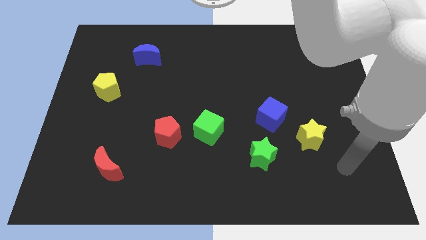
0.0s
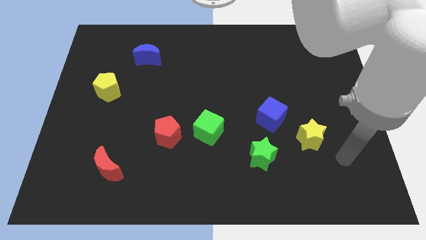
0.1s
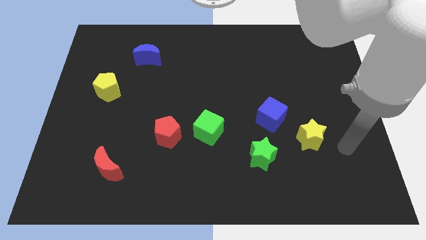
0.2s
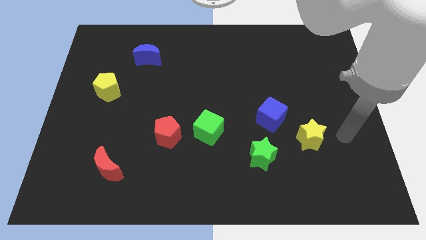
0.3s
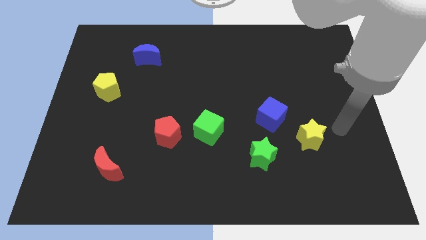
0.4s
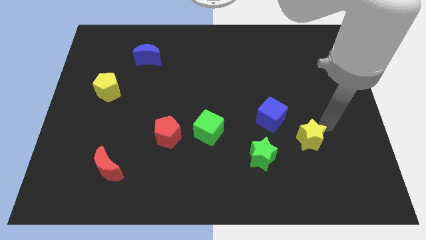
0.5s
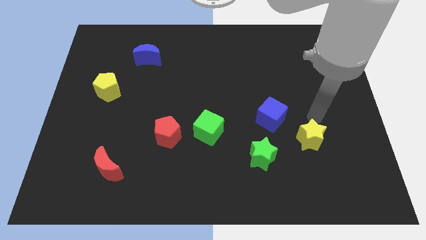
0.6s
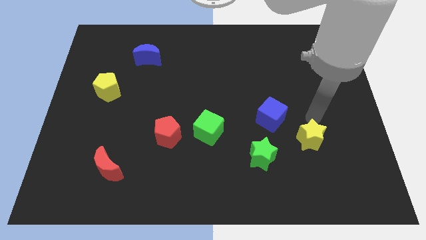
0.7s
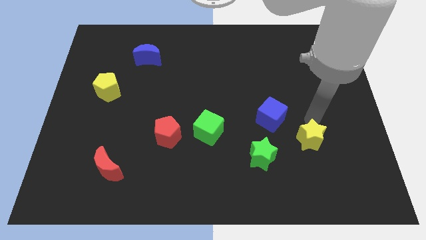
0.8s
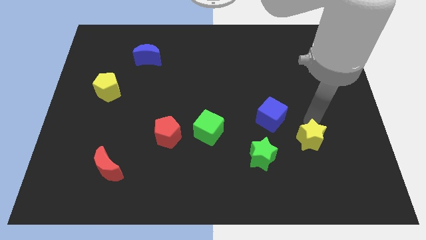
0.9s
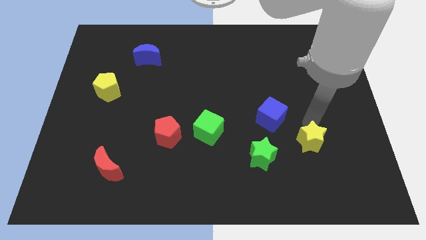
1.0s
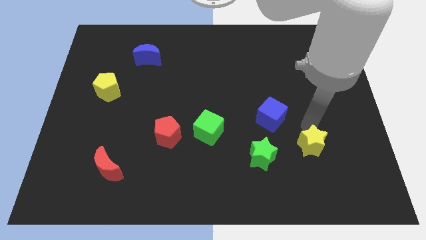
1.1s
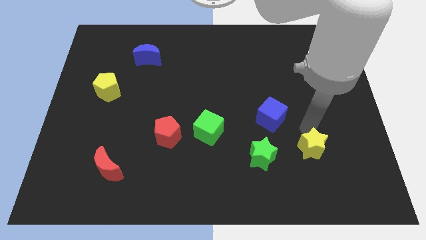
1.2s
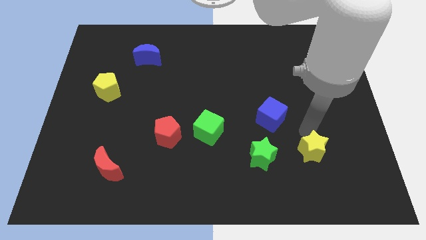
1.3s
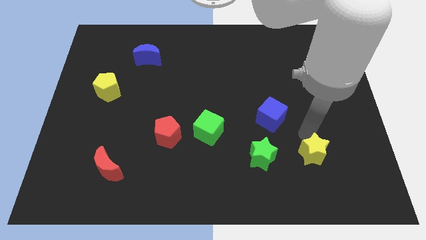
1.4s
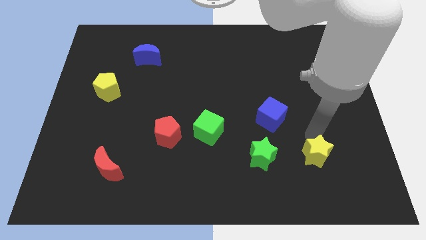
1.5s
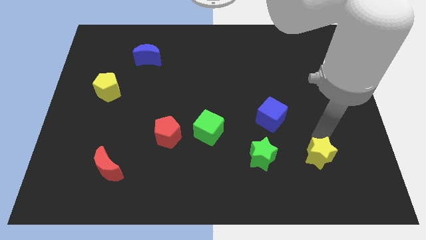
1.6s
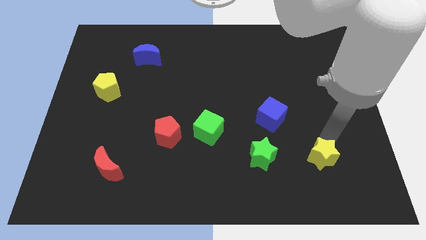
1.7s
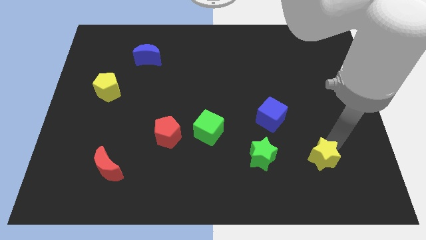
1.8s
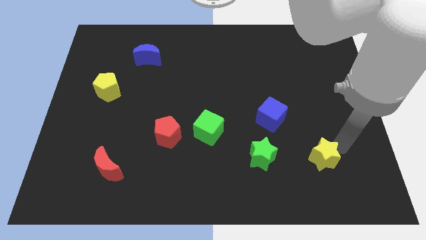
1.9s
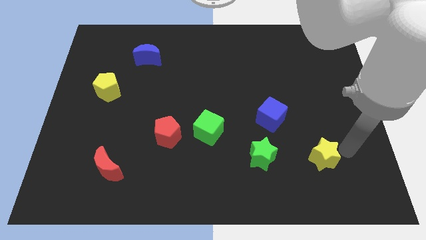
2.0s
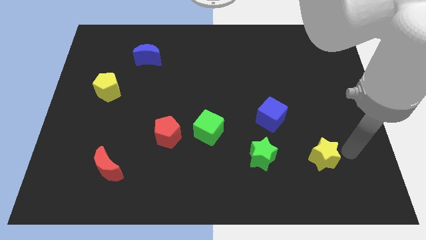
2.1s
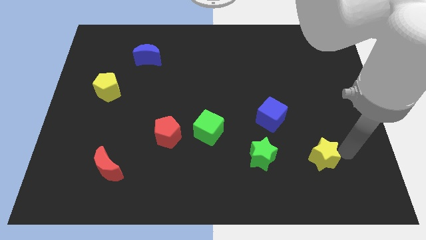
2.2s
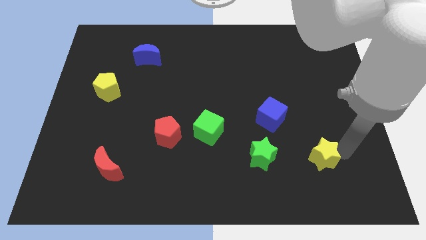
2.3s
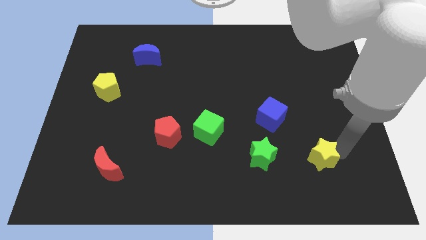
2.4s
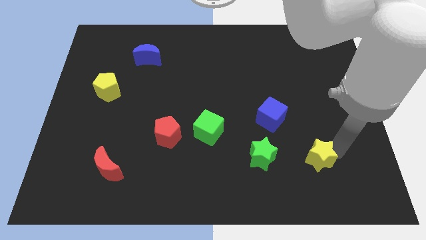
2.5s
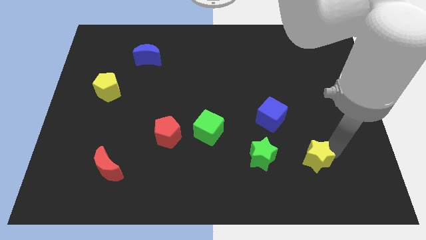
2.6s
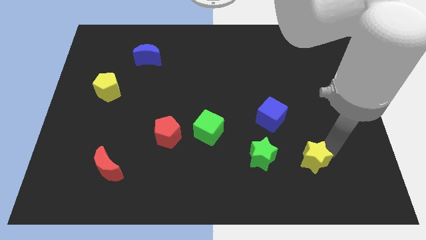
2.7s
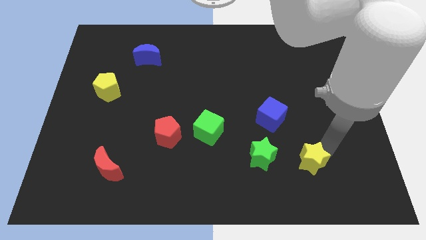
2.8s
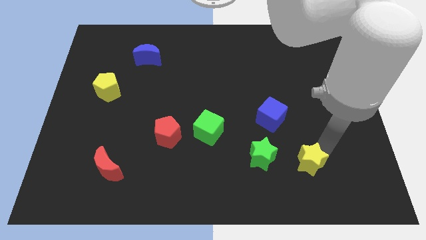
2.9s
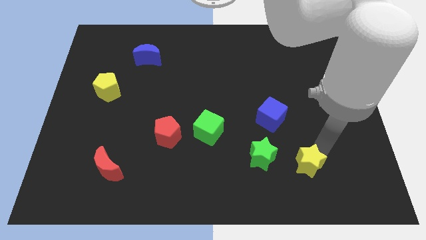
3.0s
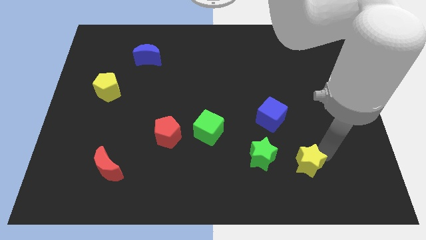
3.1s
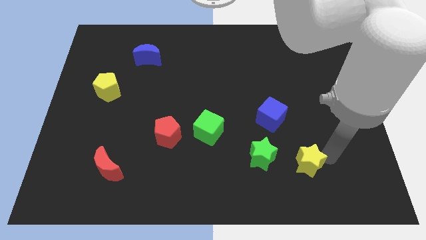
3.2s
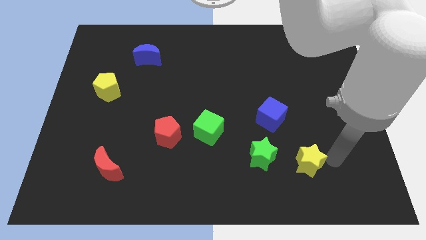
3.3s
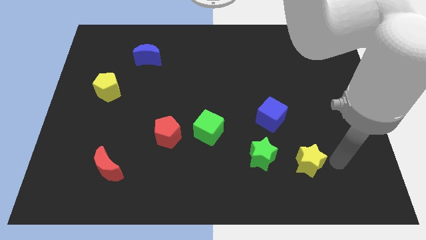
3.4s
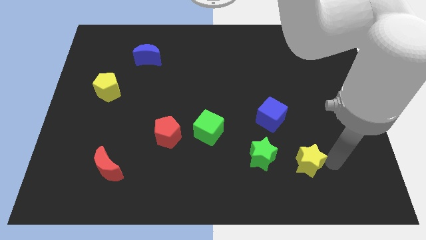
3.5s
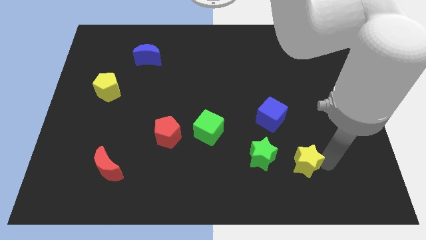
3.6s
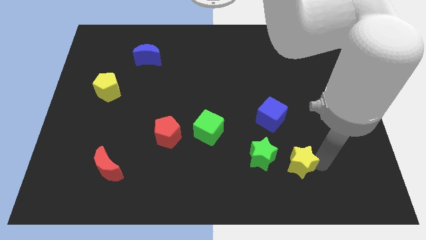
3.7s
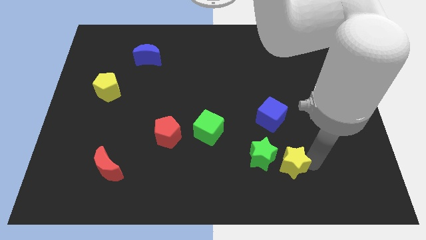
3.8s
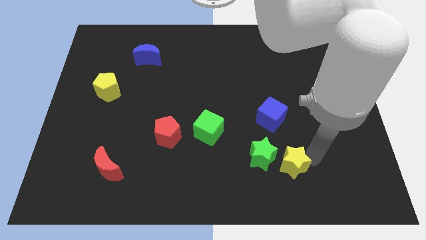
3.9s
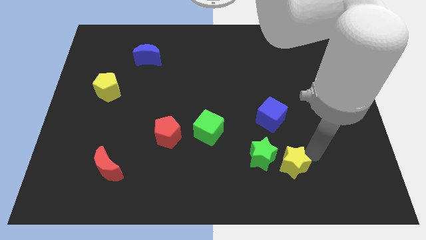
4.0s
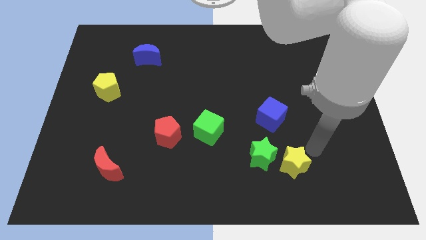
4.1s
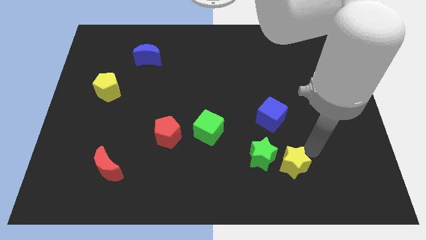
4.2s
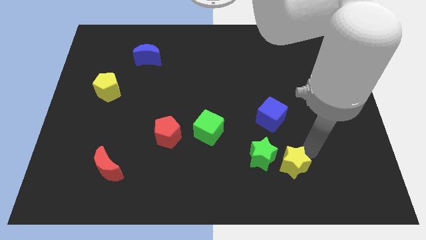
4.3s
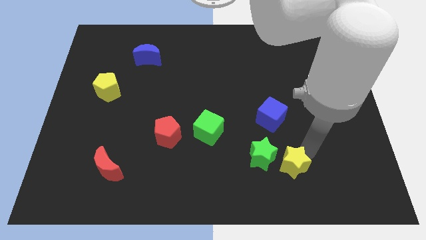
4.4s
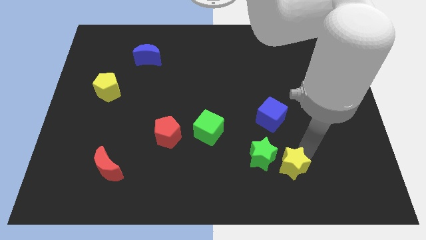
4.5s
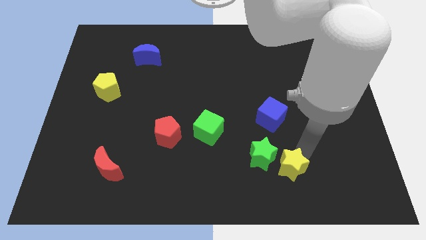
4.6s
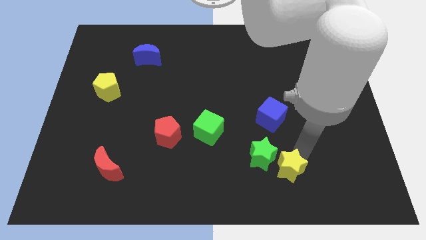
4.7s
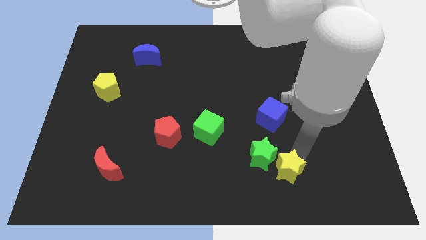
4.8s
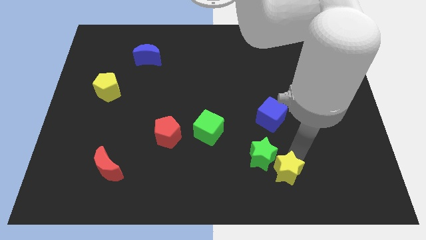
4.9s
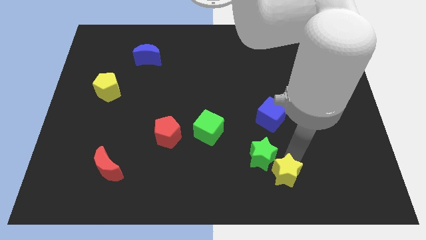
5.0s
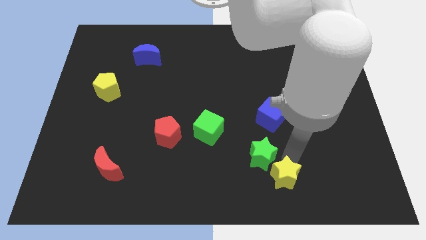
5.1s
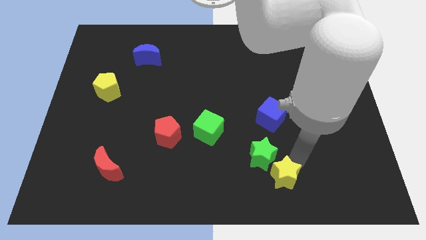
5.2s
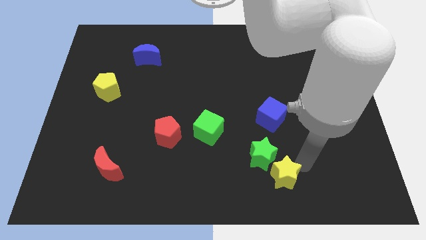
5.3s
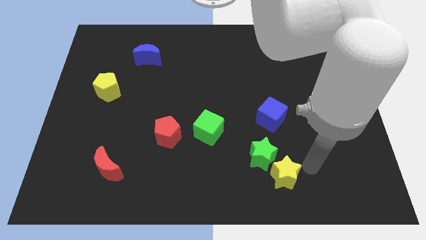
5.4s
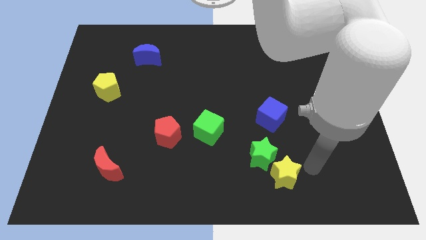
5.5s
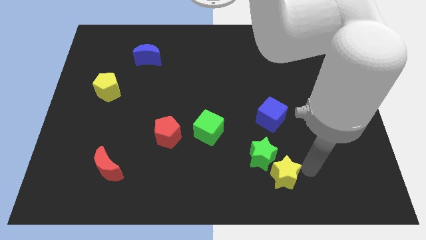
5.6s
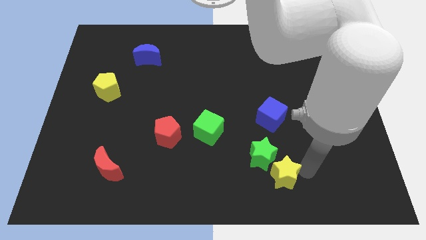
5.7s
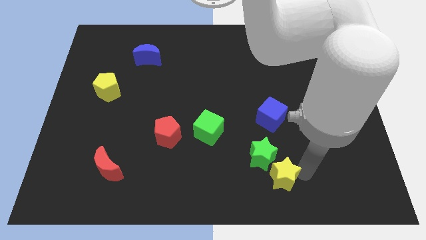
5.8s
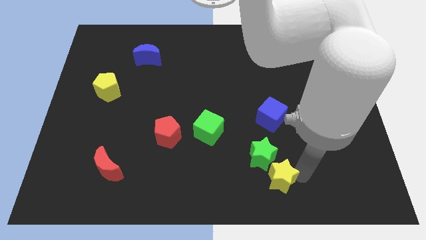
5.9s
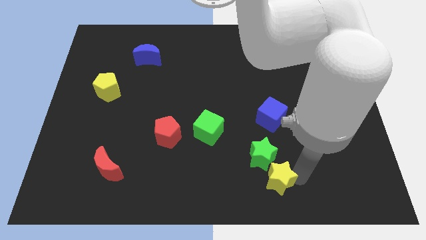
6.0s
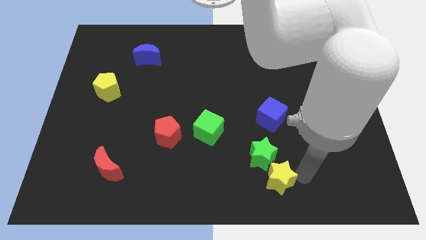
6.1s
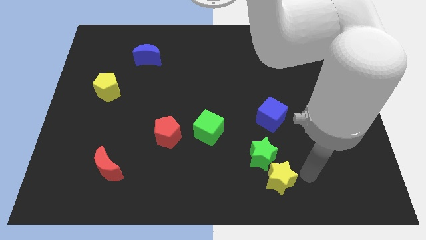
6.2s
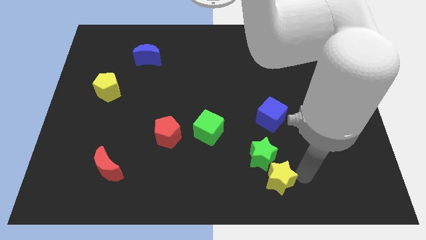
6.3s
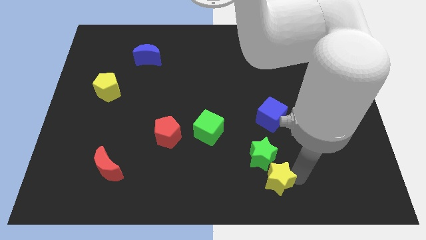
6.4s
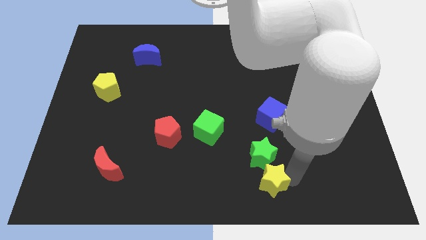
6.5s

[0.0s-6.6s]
push the yellow star to the bottom

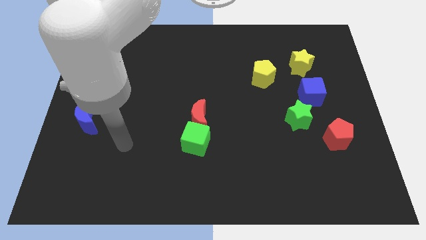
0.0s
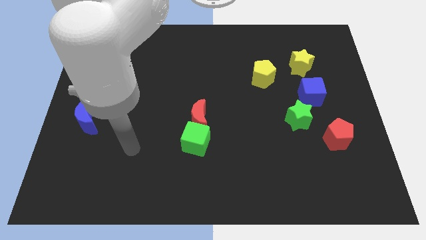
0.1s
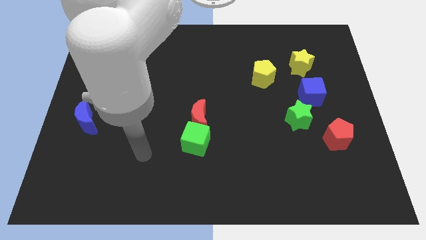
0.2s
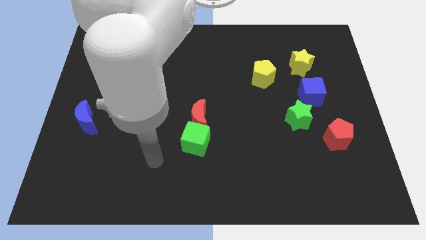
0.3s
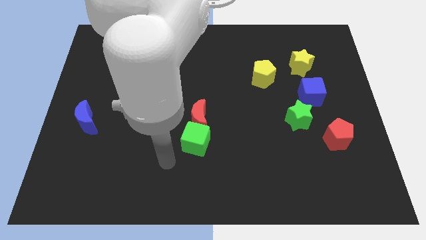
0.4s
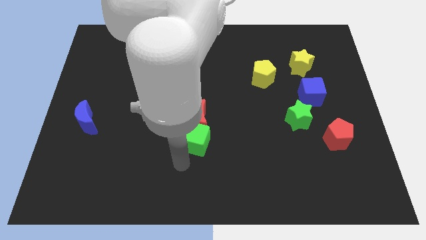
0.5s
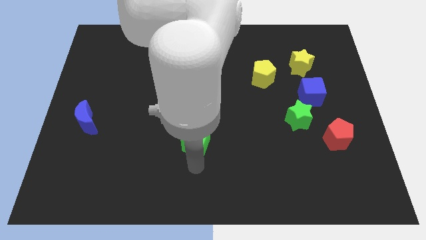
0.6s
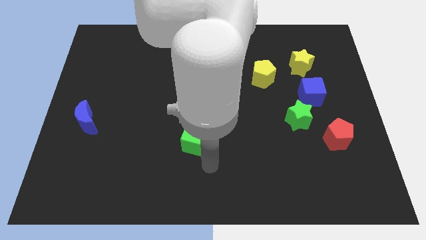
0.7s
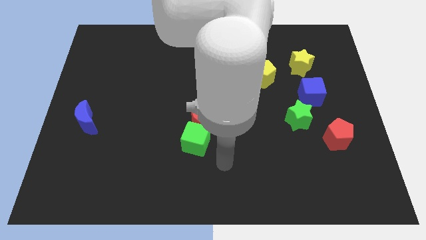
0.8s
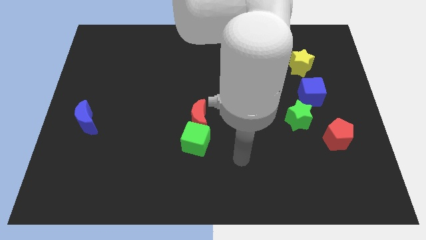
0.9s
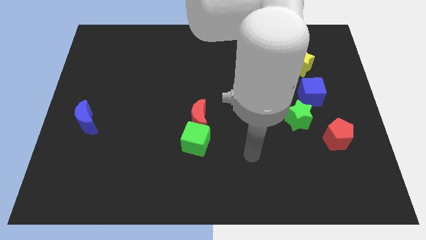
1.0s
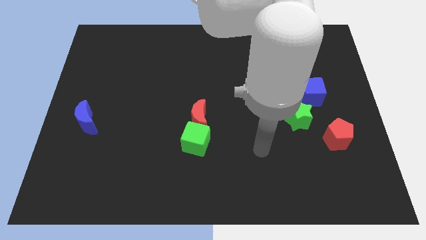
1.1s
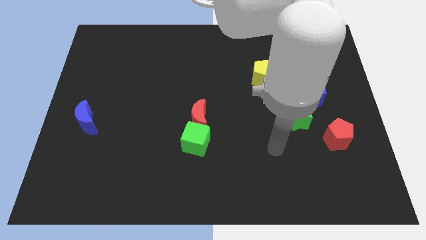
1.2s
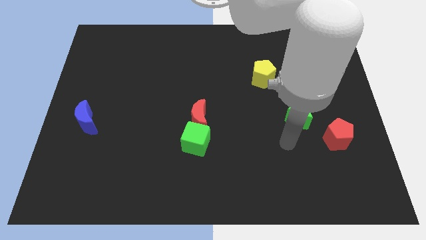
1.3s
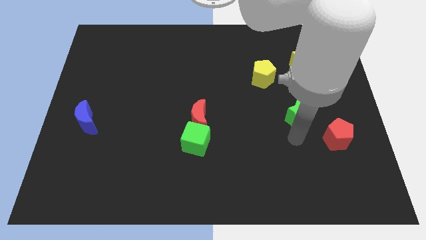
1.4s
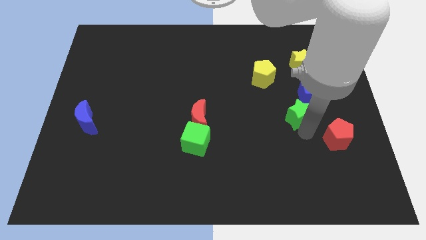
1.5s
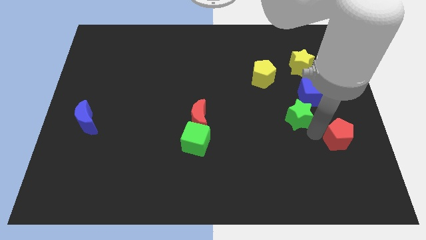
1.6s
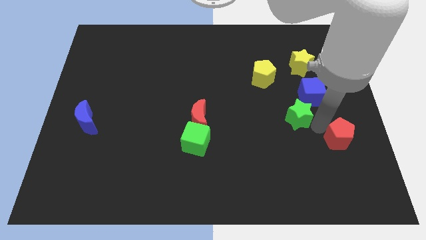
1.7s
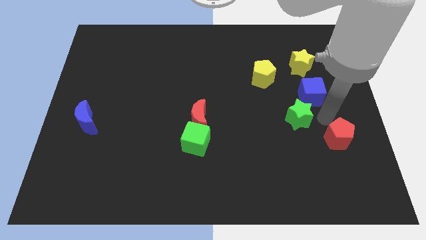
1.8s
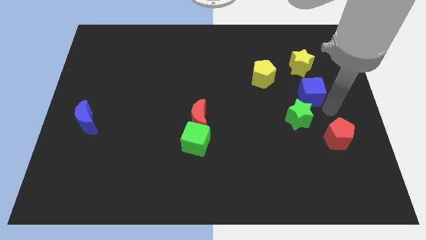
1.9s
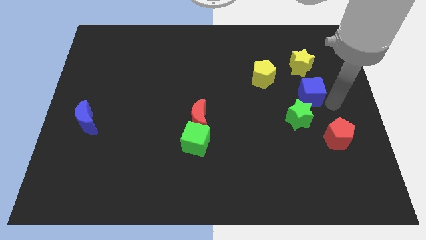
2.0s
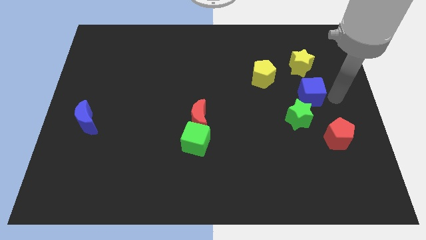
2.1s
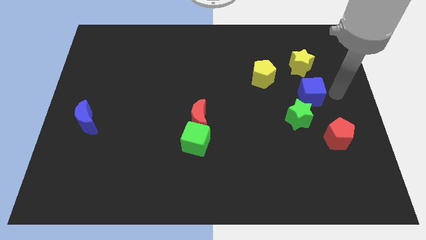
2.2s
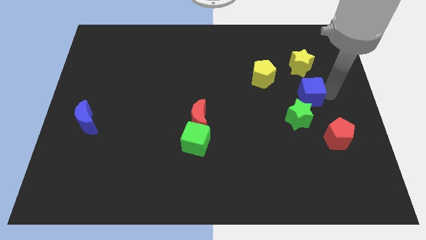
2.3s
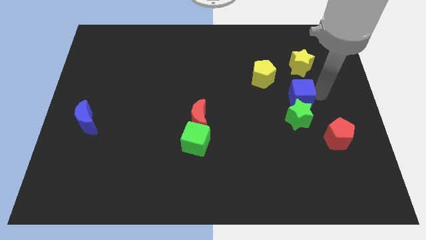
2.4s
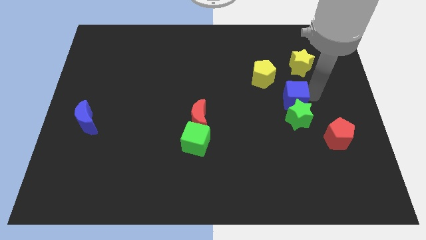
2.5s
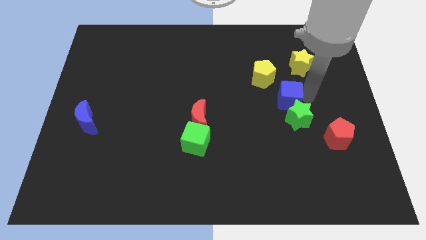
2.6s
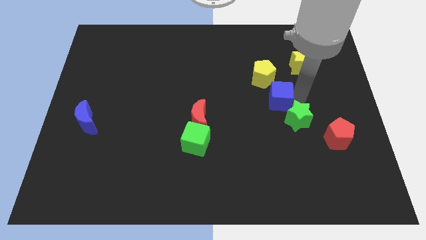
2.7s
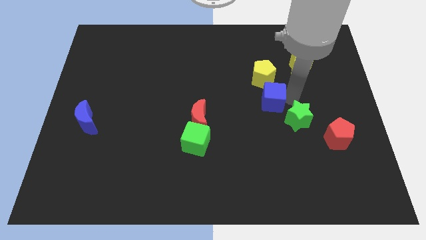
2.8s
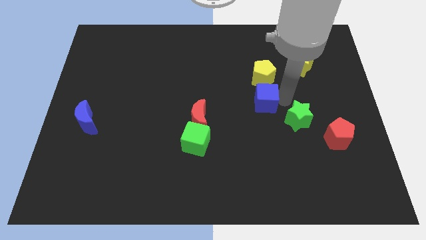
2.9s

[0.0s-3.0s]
put the blue cube to the middle of the board
